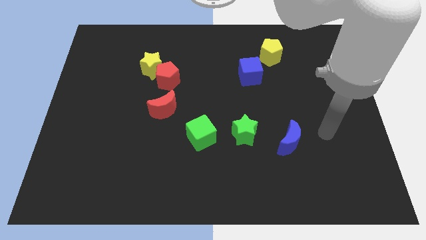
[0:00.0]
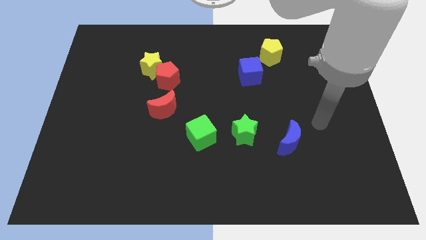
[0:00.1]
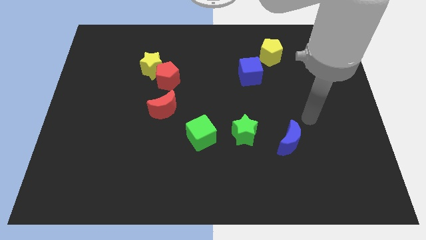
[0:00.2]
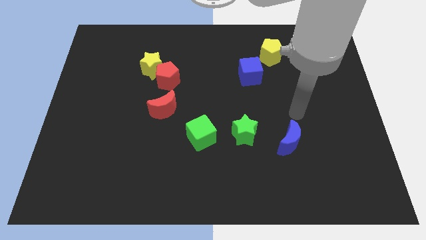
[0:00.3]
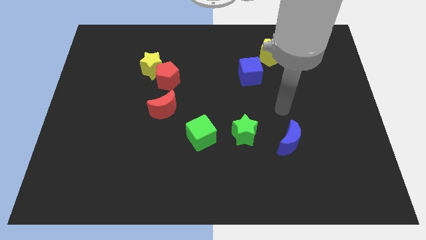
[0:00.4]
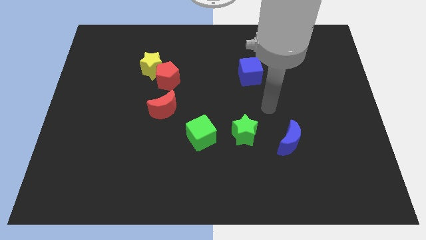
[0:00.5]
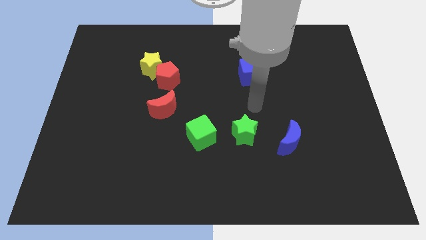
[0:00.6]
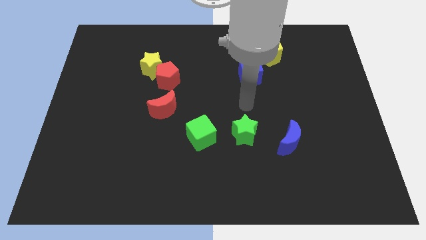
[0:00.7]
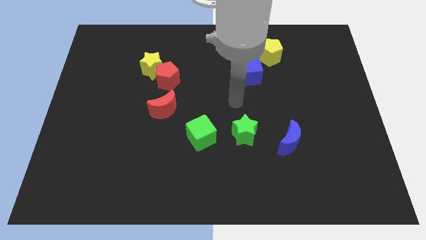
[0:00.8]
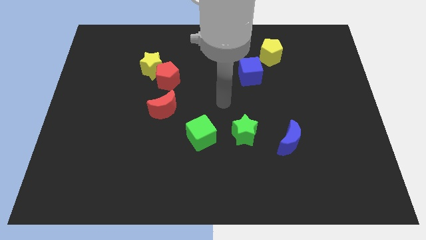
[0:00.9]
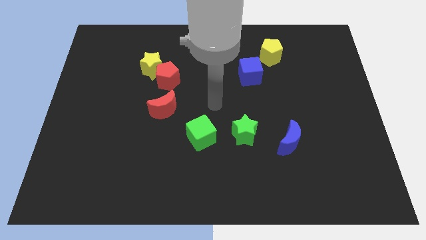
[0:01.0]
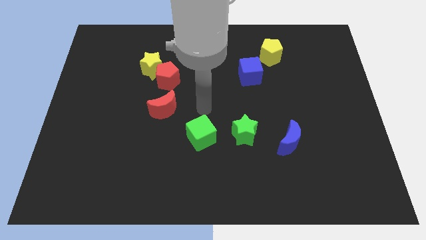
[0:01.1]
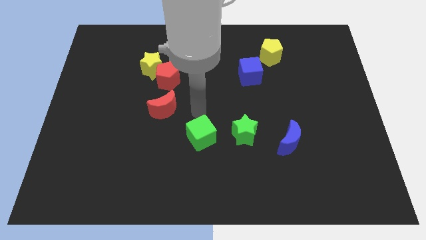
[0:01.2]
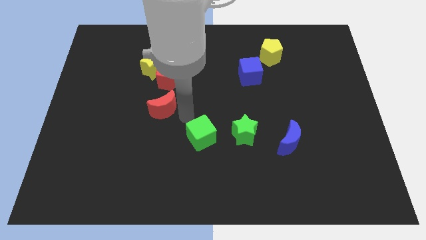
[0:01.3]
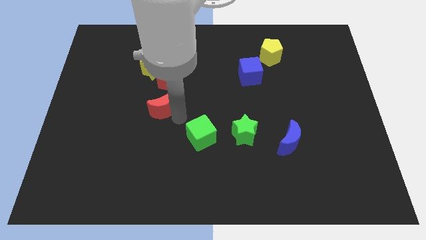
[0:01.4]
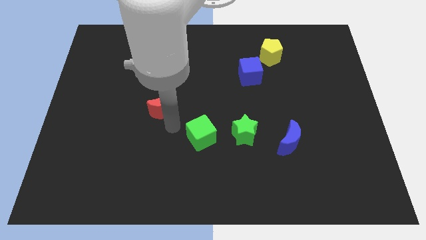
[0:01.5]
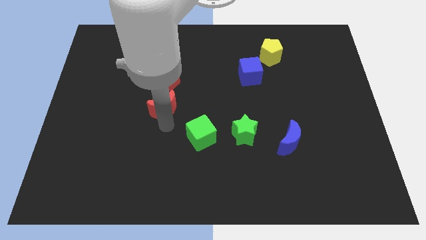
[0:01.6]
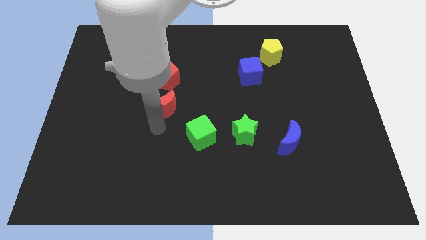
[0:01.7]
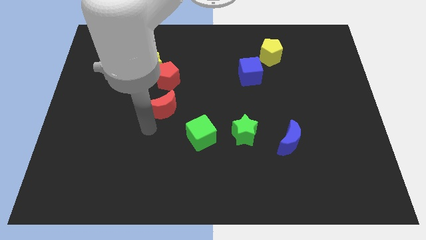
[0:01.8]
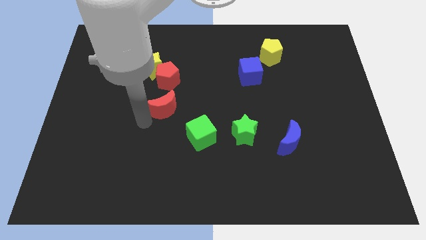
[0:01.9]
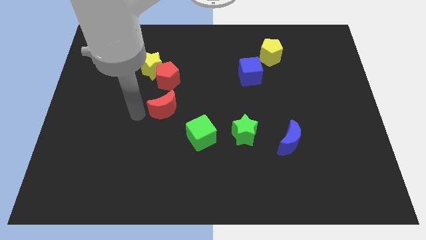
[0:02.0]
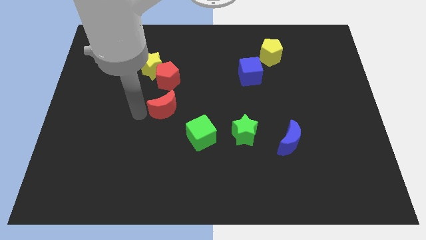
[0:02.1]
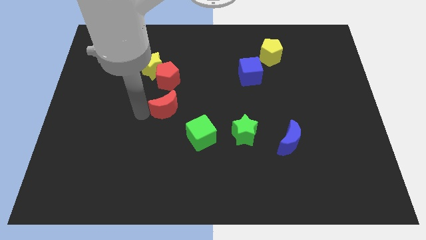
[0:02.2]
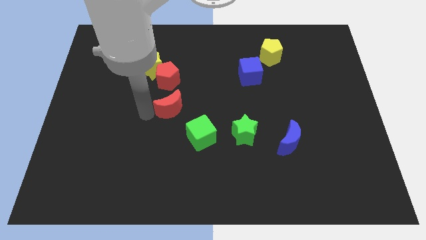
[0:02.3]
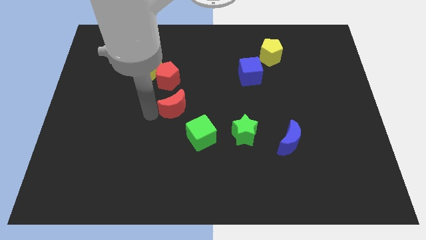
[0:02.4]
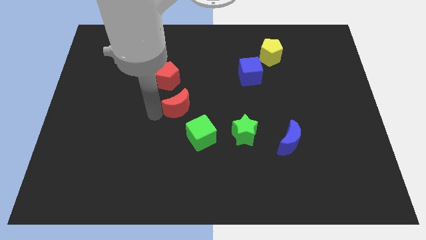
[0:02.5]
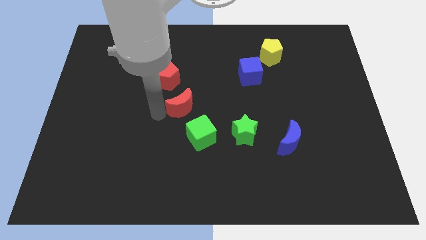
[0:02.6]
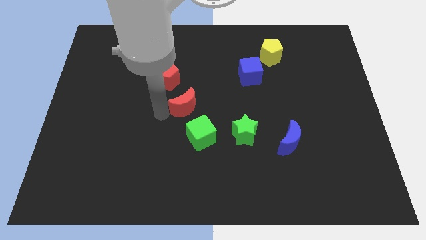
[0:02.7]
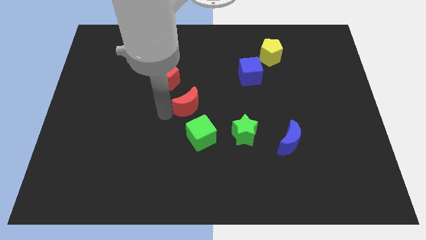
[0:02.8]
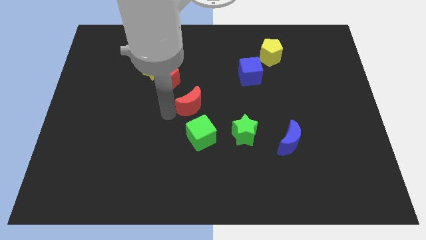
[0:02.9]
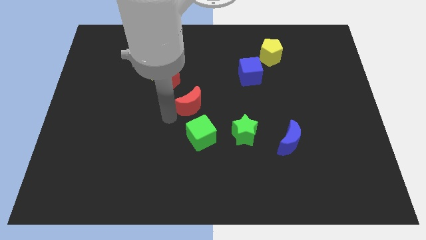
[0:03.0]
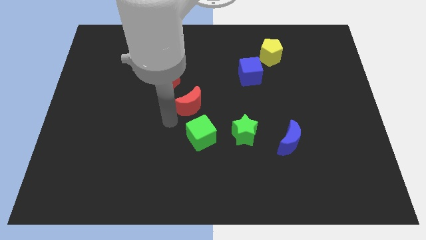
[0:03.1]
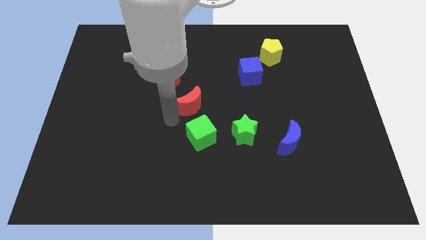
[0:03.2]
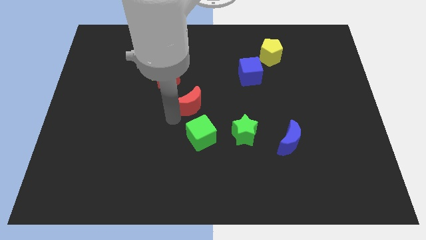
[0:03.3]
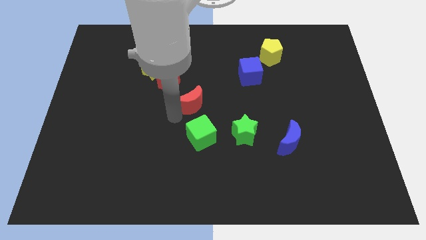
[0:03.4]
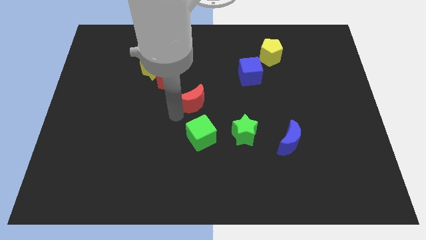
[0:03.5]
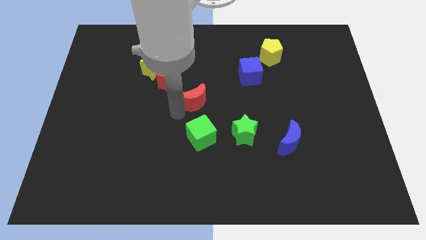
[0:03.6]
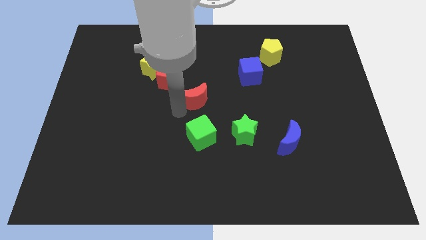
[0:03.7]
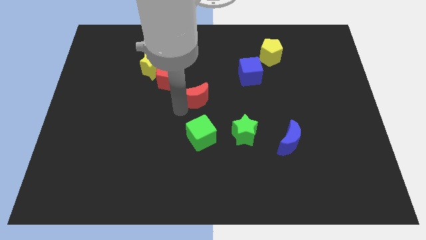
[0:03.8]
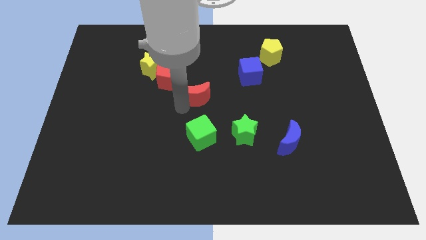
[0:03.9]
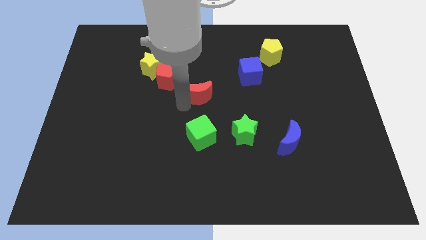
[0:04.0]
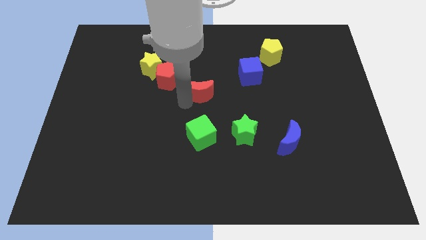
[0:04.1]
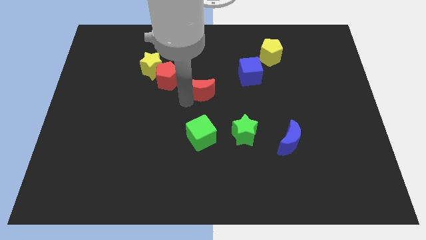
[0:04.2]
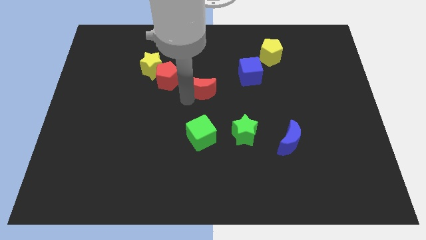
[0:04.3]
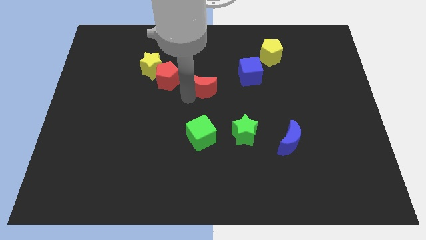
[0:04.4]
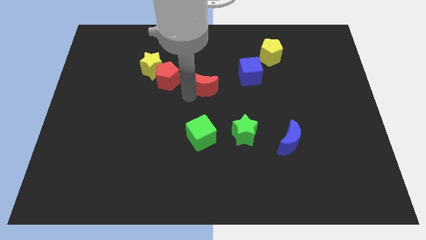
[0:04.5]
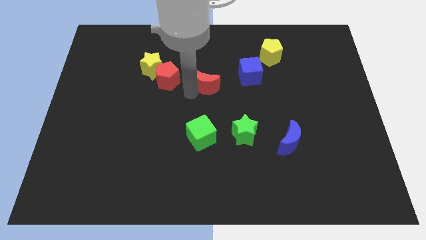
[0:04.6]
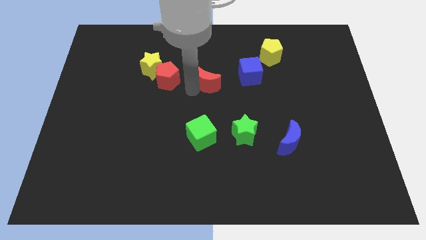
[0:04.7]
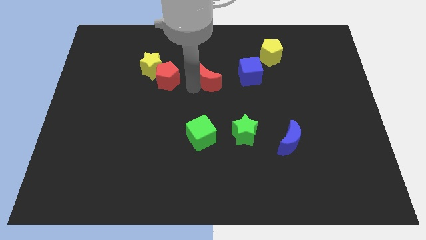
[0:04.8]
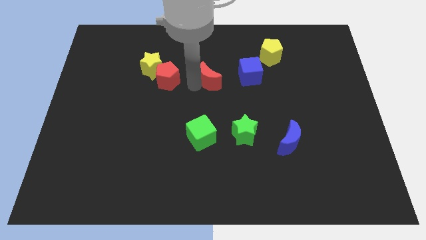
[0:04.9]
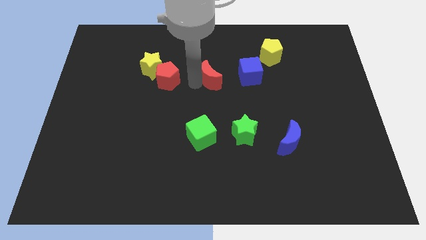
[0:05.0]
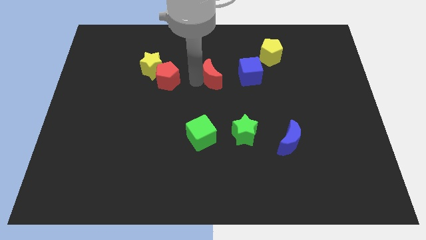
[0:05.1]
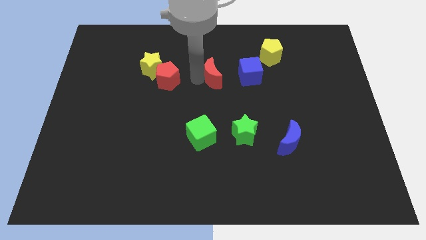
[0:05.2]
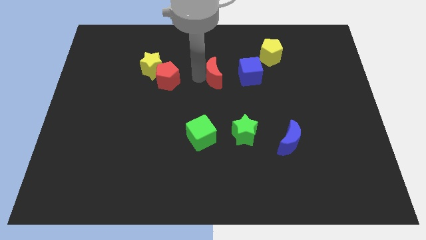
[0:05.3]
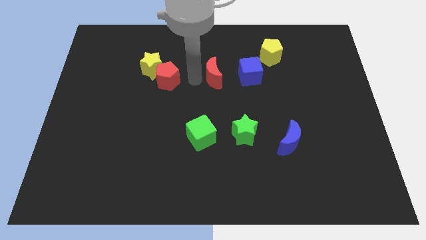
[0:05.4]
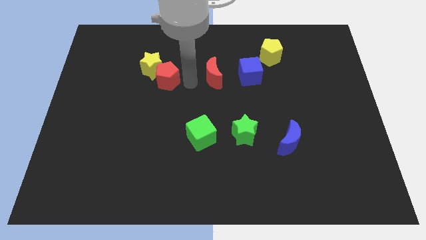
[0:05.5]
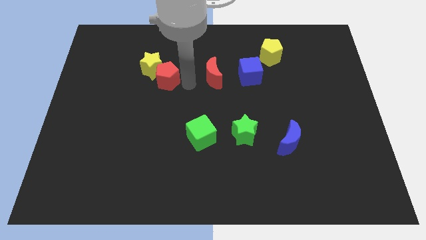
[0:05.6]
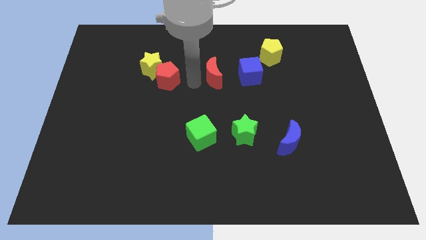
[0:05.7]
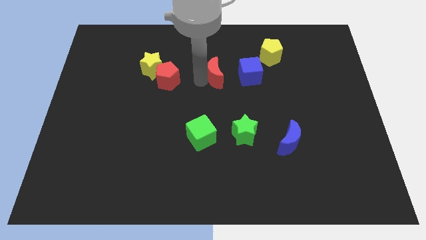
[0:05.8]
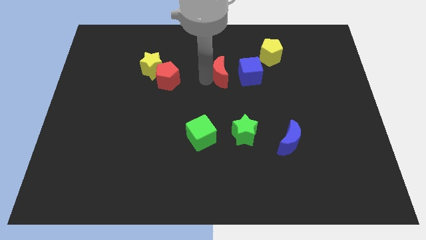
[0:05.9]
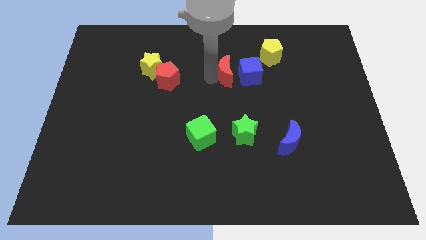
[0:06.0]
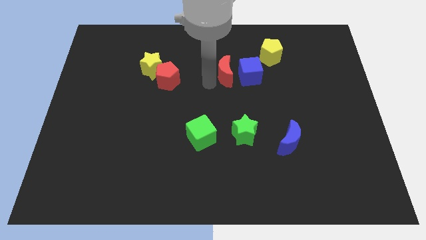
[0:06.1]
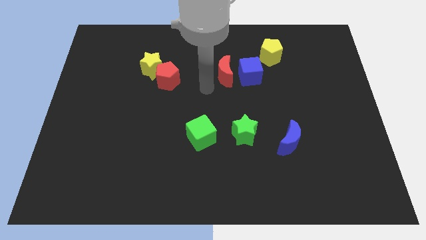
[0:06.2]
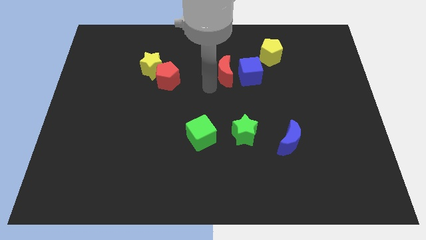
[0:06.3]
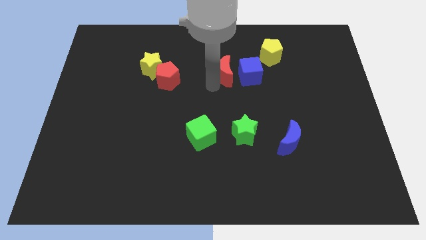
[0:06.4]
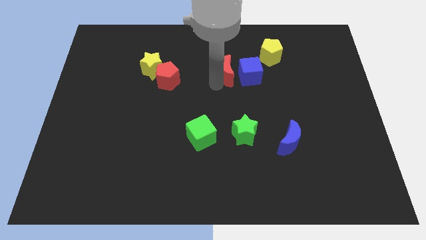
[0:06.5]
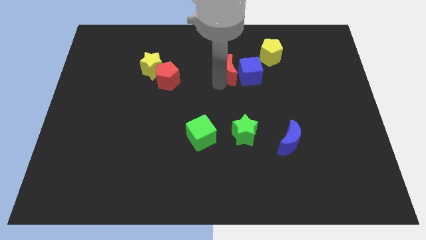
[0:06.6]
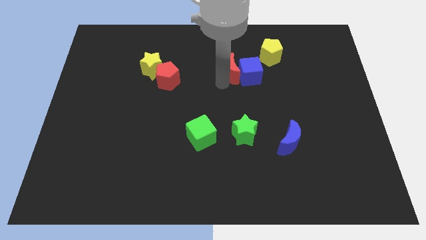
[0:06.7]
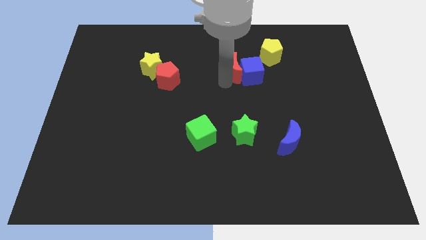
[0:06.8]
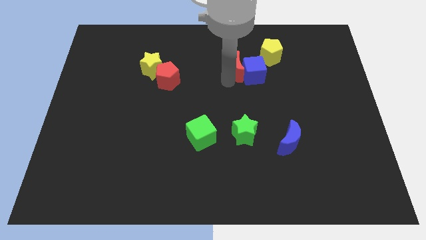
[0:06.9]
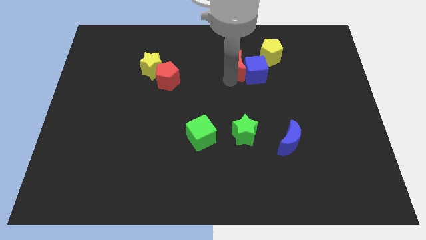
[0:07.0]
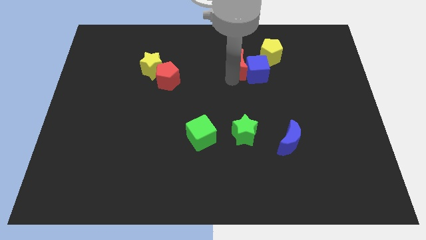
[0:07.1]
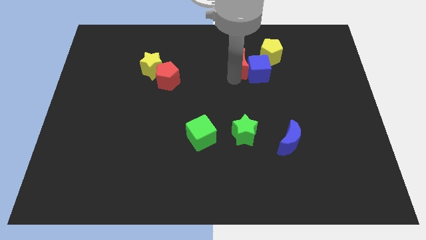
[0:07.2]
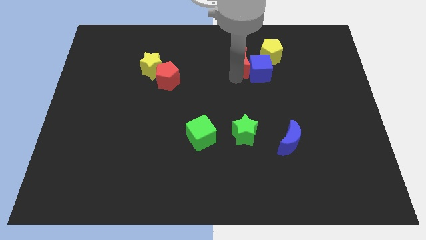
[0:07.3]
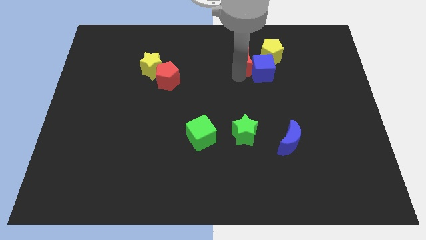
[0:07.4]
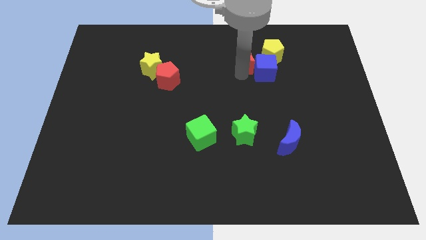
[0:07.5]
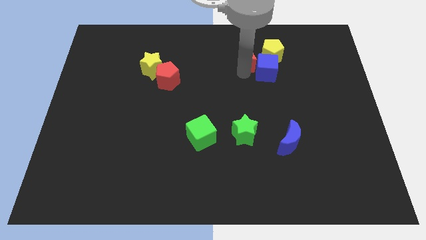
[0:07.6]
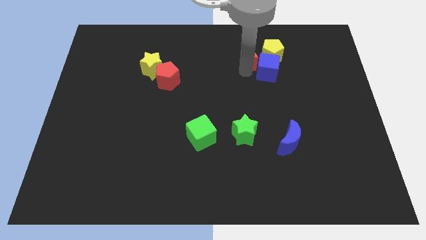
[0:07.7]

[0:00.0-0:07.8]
put the red moon towards the yellow pentagon
